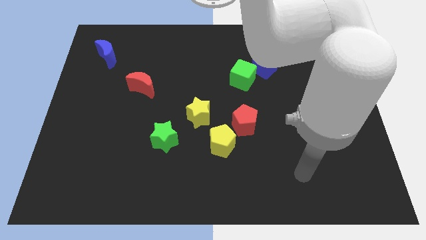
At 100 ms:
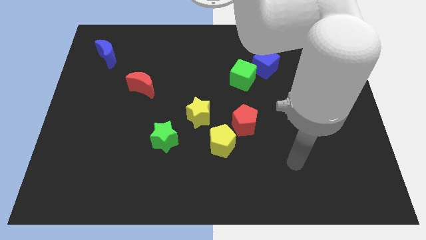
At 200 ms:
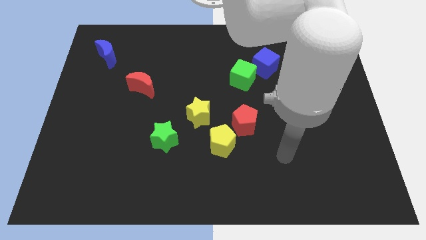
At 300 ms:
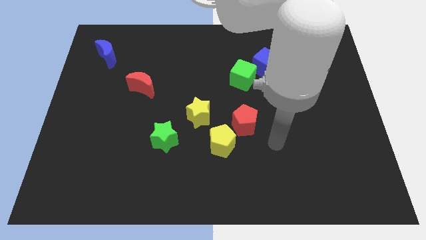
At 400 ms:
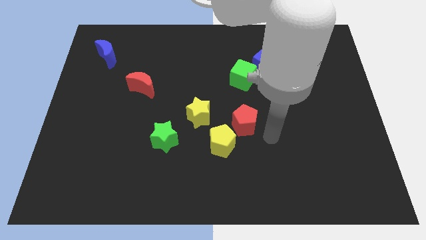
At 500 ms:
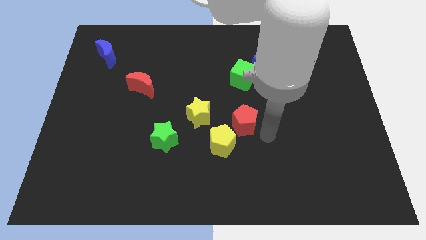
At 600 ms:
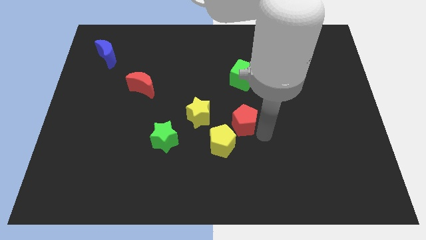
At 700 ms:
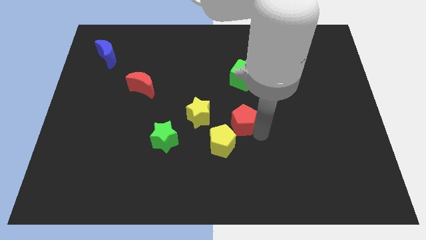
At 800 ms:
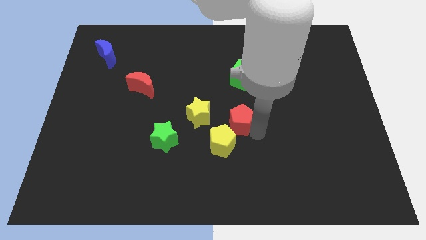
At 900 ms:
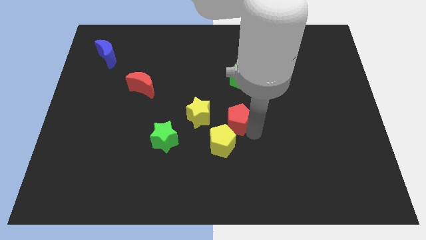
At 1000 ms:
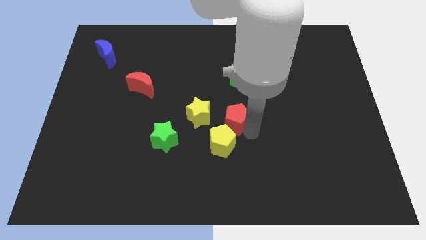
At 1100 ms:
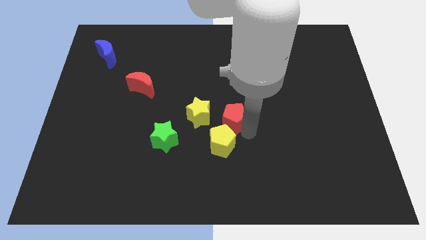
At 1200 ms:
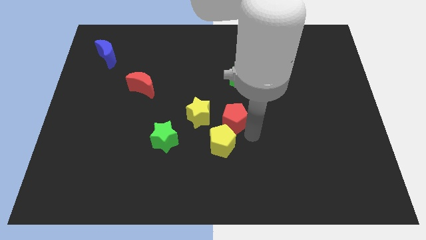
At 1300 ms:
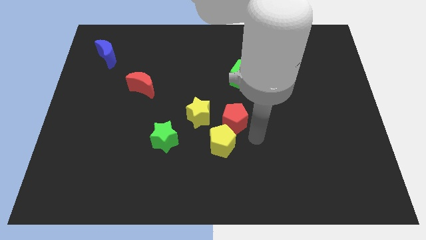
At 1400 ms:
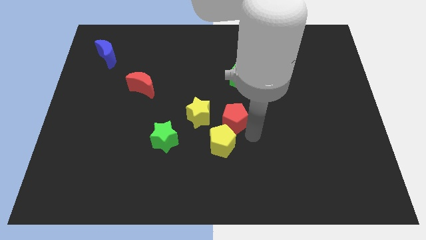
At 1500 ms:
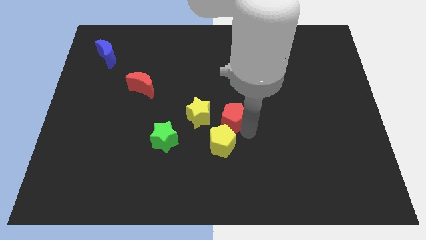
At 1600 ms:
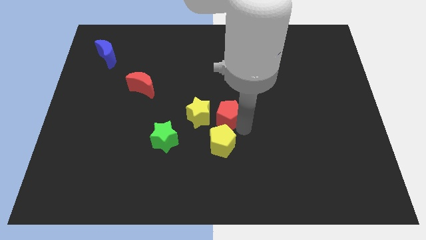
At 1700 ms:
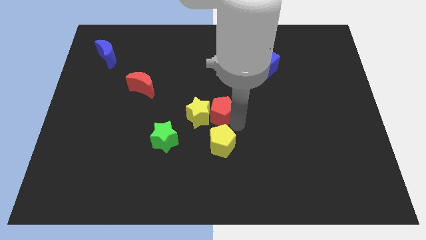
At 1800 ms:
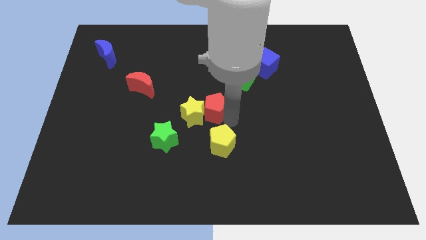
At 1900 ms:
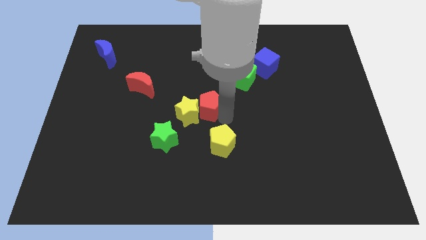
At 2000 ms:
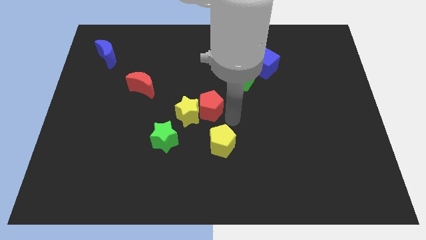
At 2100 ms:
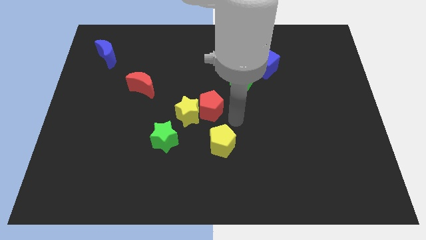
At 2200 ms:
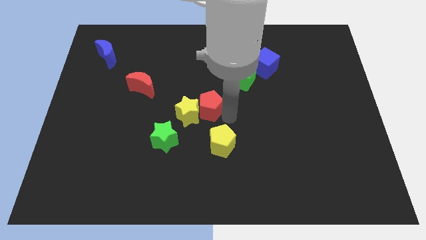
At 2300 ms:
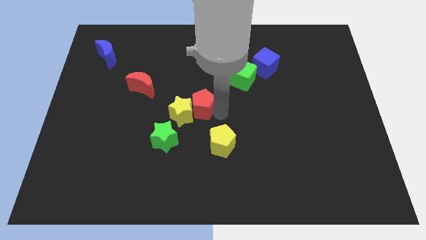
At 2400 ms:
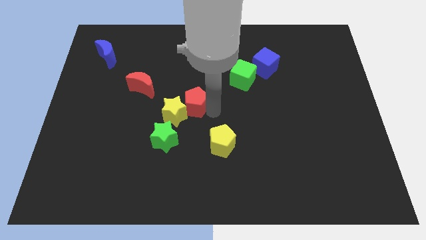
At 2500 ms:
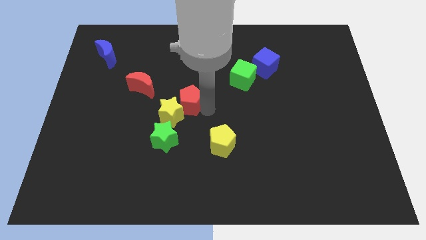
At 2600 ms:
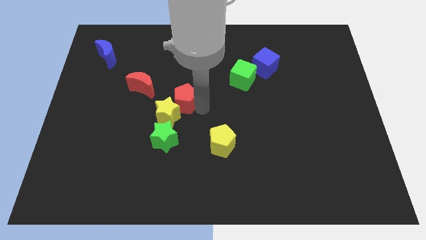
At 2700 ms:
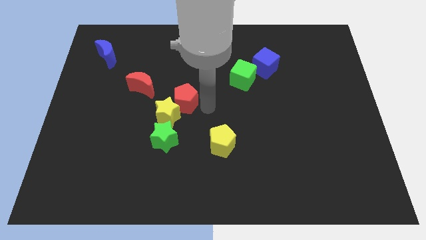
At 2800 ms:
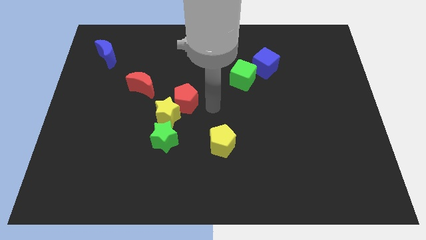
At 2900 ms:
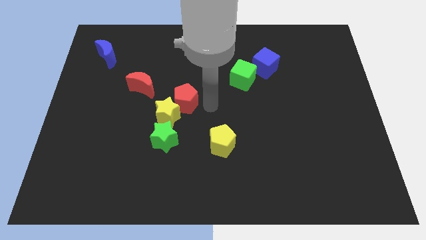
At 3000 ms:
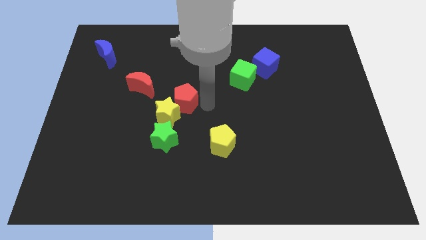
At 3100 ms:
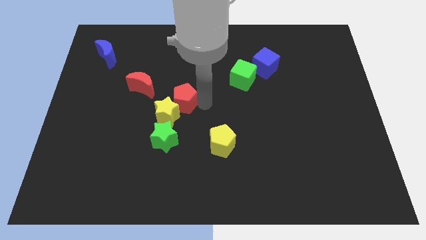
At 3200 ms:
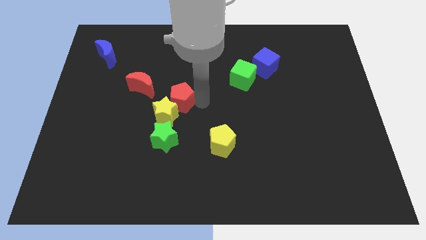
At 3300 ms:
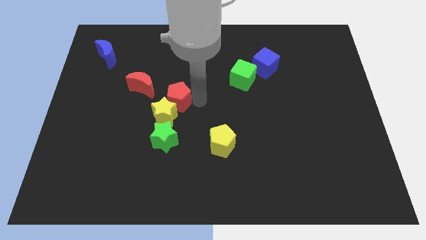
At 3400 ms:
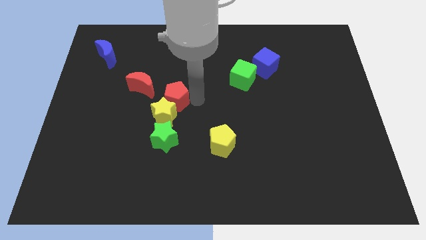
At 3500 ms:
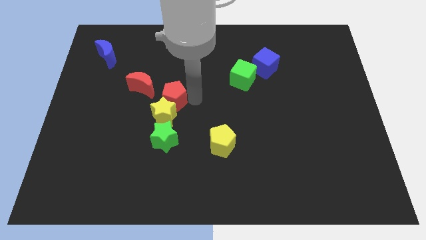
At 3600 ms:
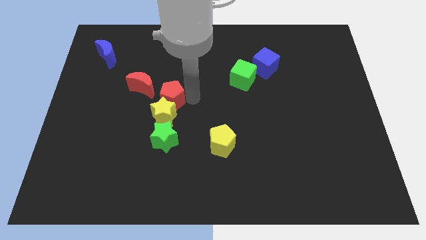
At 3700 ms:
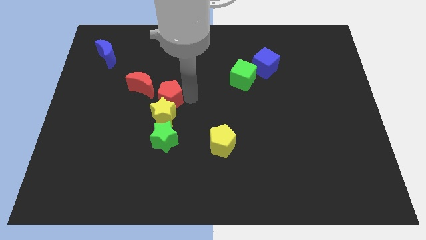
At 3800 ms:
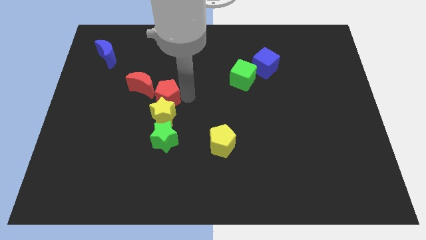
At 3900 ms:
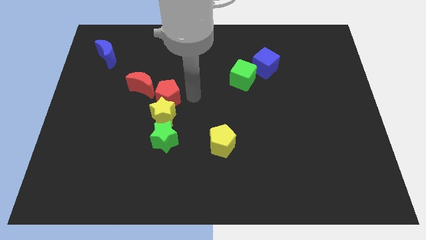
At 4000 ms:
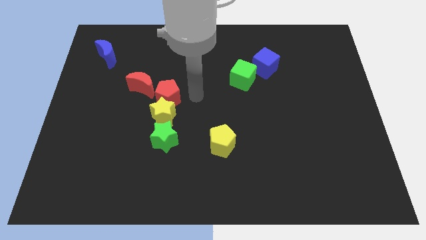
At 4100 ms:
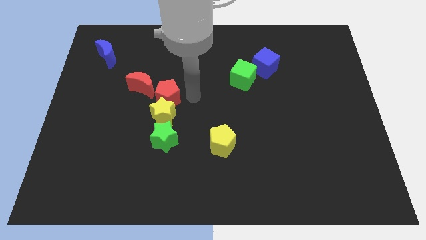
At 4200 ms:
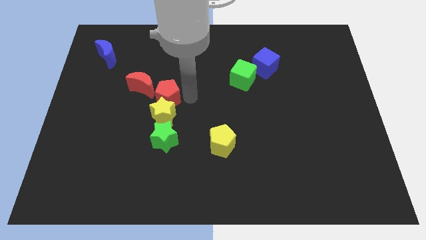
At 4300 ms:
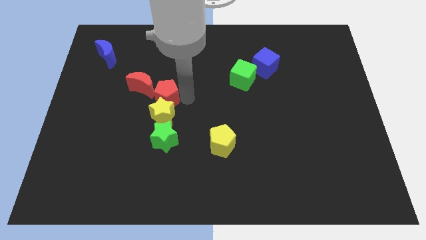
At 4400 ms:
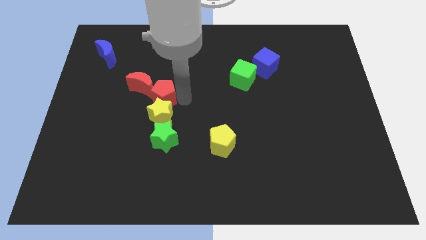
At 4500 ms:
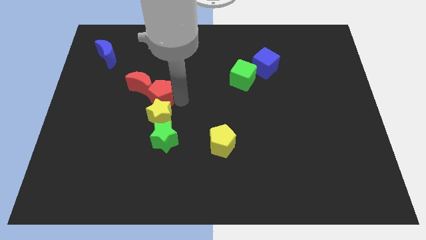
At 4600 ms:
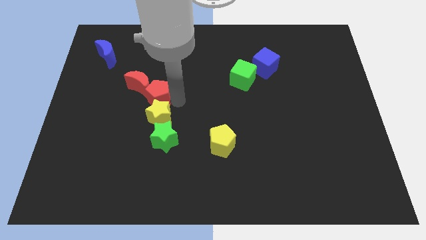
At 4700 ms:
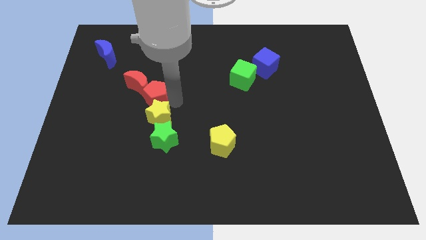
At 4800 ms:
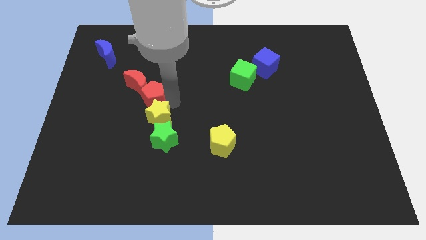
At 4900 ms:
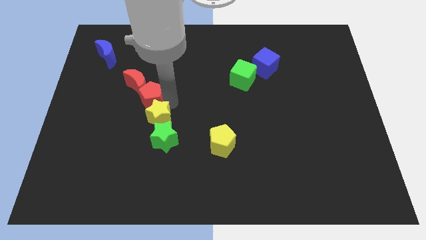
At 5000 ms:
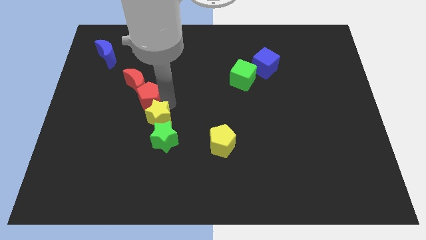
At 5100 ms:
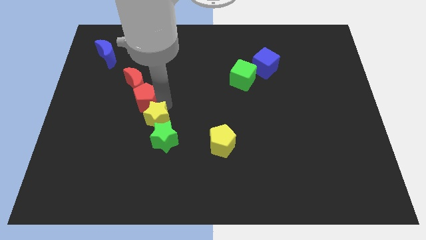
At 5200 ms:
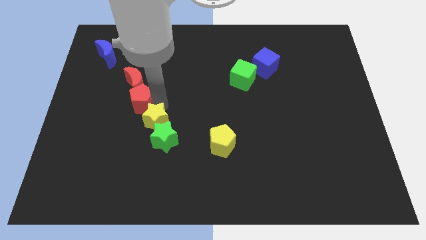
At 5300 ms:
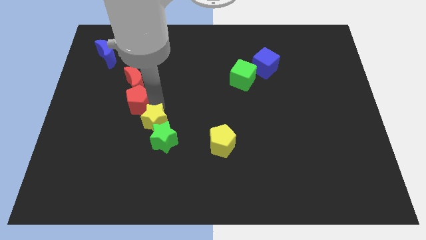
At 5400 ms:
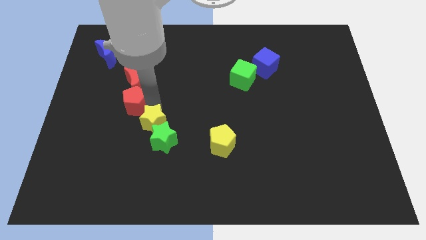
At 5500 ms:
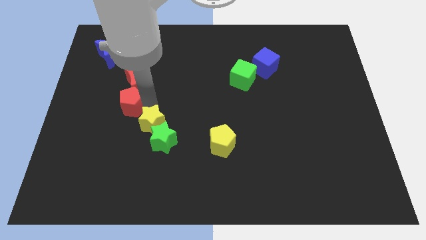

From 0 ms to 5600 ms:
put the red pentagon diagonally down and to the left of the red moon

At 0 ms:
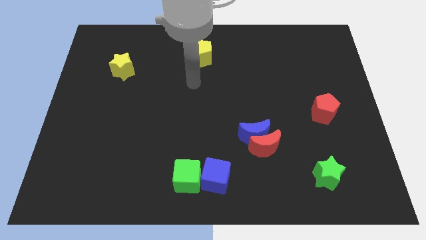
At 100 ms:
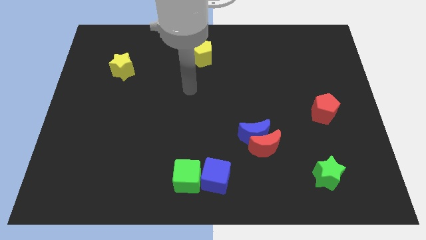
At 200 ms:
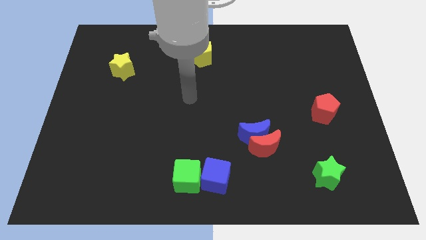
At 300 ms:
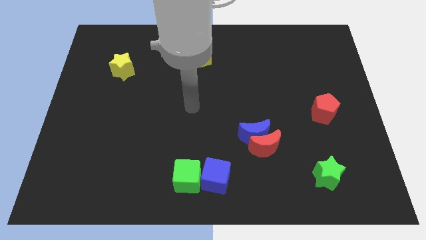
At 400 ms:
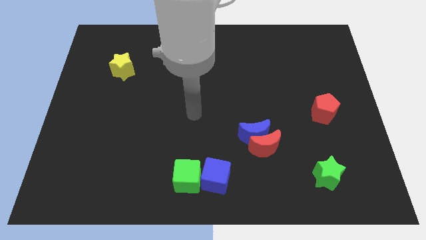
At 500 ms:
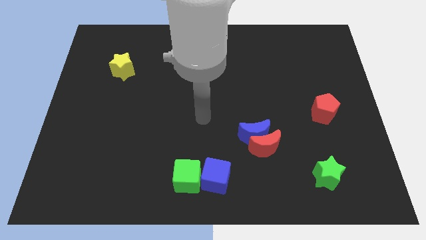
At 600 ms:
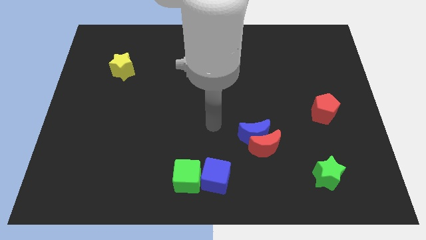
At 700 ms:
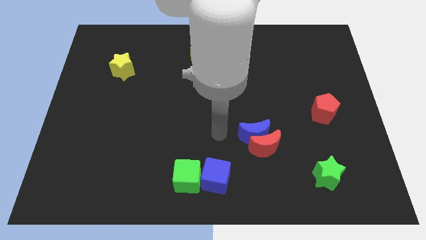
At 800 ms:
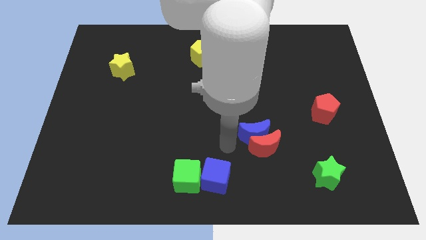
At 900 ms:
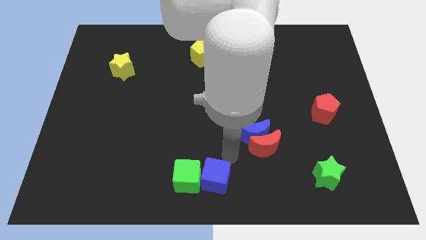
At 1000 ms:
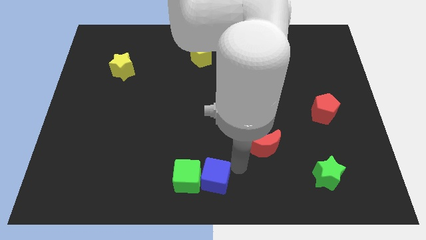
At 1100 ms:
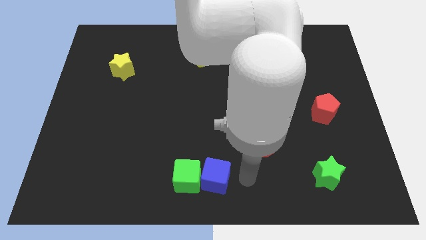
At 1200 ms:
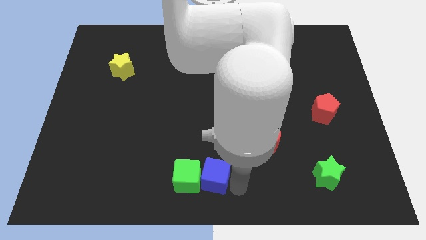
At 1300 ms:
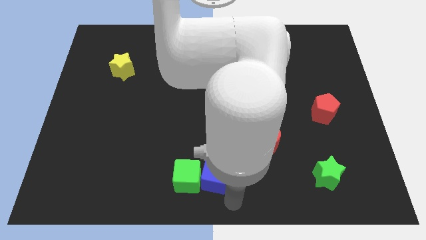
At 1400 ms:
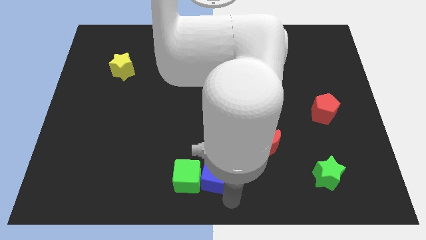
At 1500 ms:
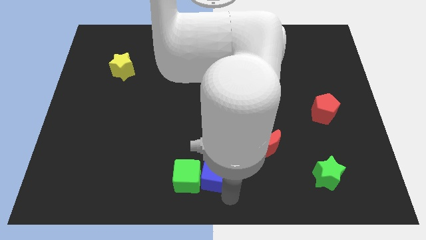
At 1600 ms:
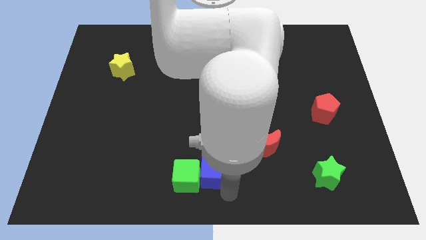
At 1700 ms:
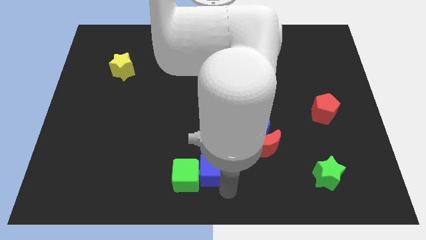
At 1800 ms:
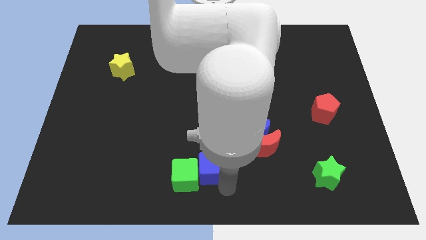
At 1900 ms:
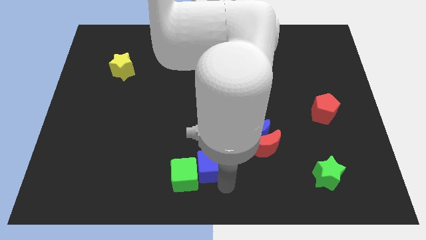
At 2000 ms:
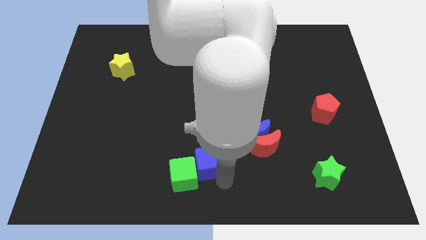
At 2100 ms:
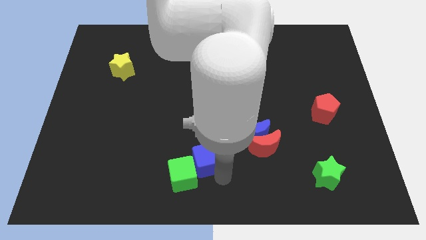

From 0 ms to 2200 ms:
move the blue cube to the top of the green cube

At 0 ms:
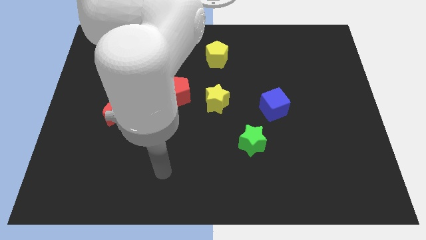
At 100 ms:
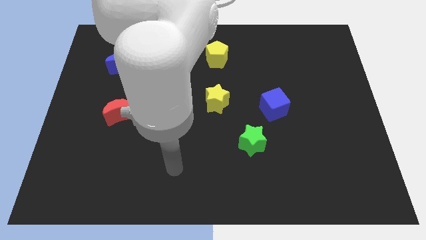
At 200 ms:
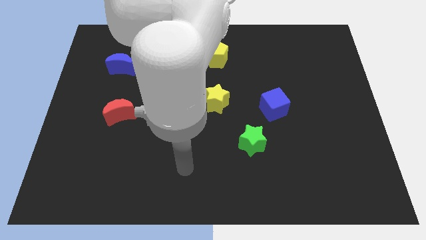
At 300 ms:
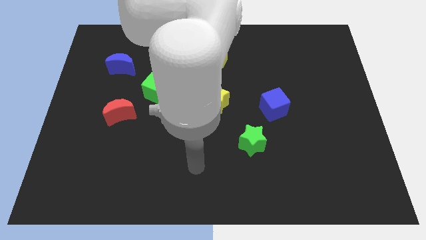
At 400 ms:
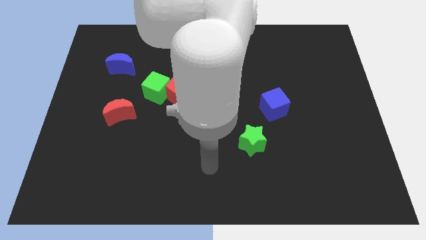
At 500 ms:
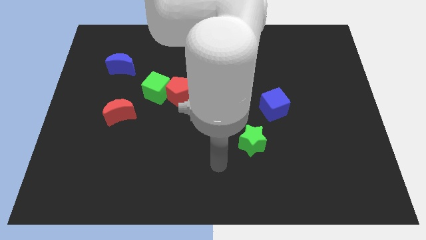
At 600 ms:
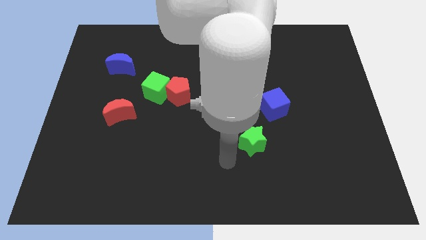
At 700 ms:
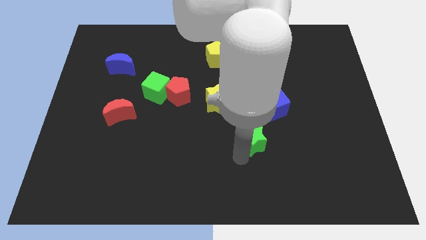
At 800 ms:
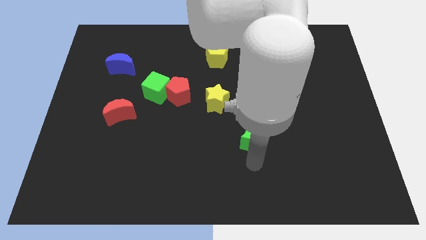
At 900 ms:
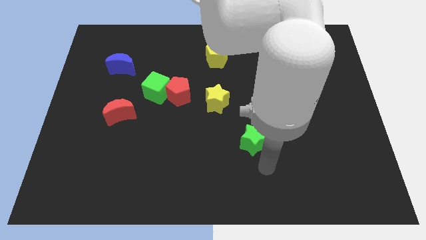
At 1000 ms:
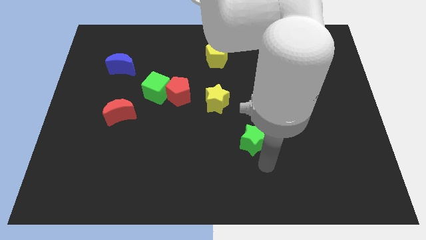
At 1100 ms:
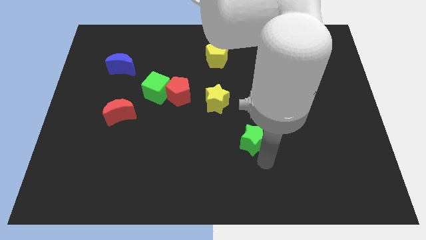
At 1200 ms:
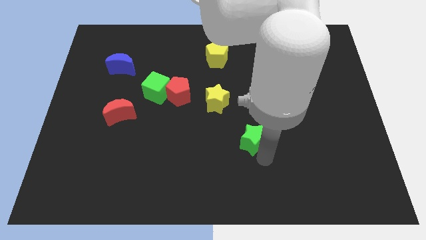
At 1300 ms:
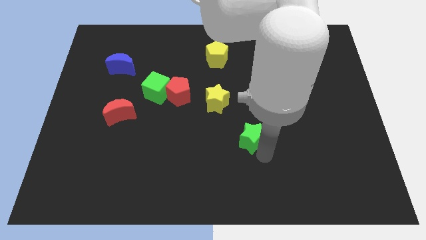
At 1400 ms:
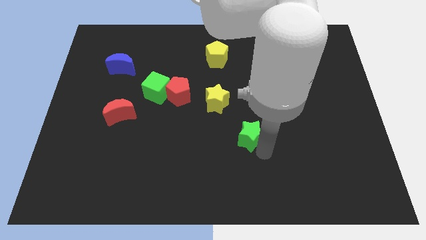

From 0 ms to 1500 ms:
put the green star to the bottom right side of the yellow star
